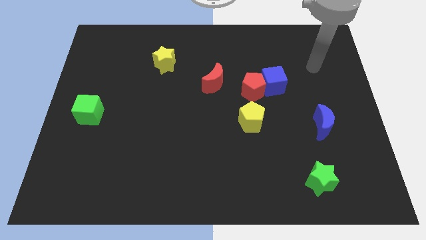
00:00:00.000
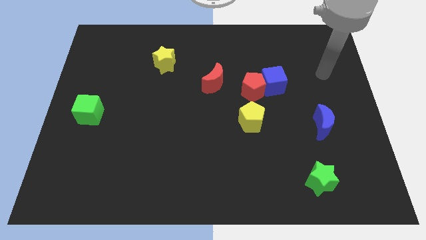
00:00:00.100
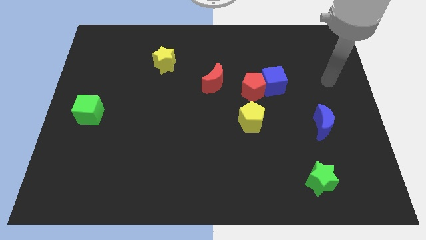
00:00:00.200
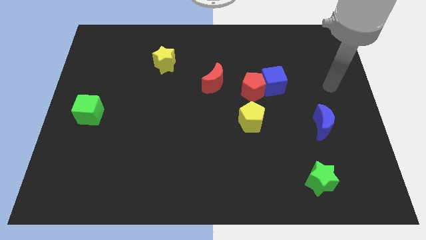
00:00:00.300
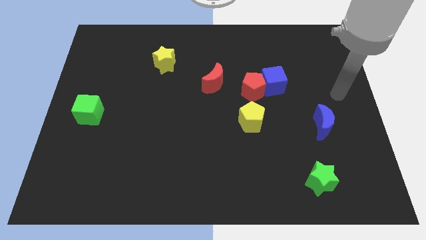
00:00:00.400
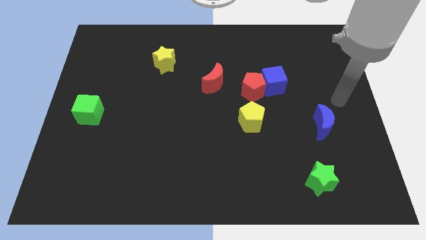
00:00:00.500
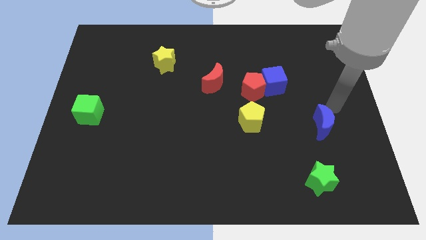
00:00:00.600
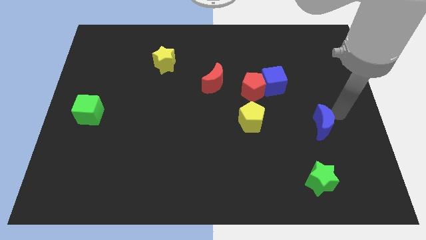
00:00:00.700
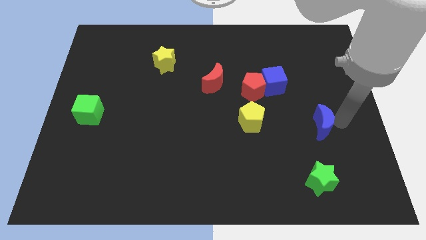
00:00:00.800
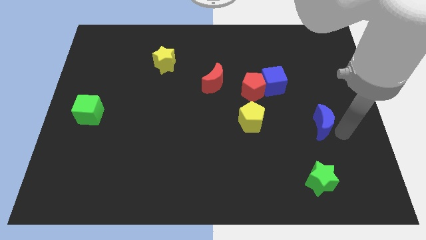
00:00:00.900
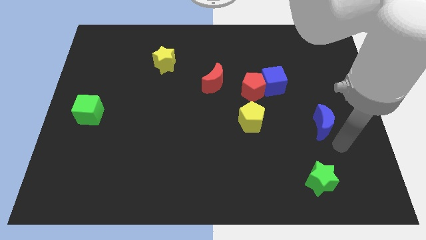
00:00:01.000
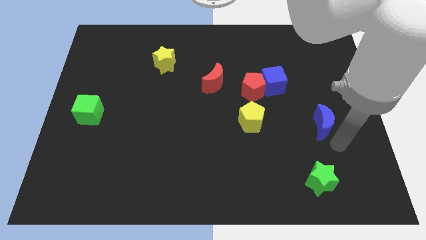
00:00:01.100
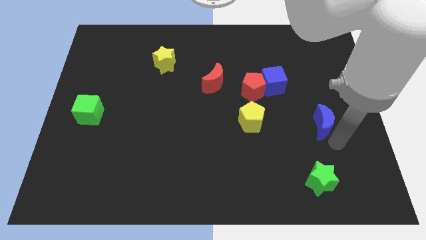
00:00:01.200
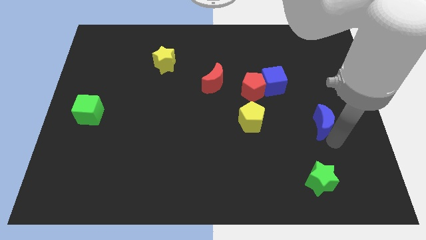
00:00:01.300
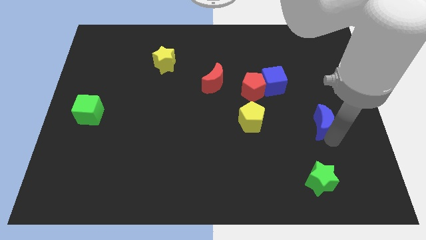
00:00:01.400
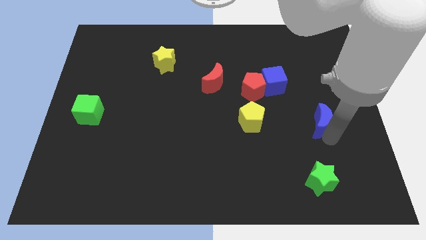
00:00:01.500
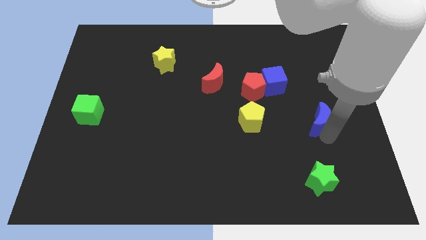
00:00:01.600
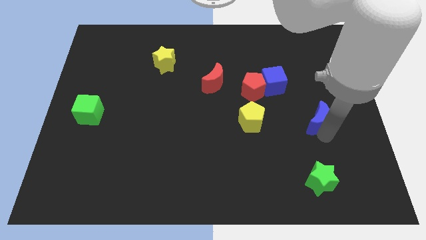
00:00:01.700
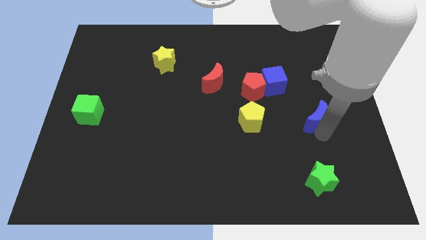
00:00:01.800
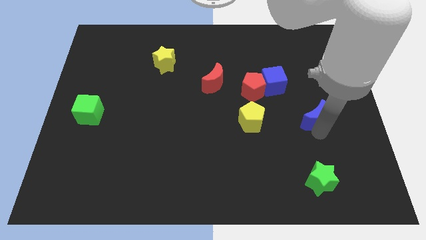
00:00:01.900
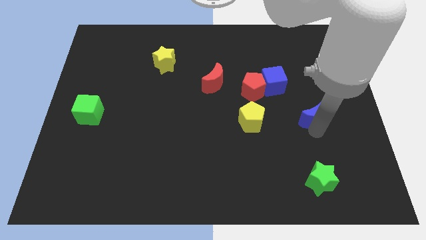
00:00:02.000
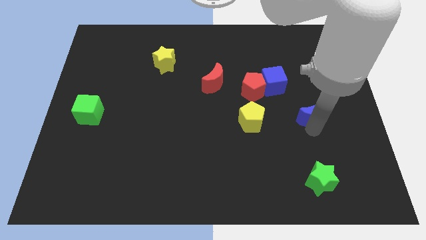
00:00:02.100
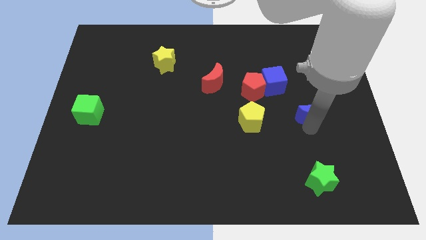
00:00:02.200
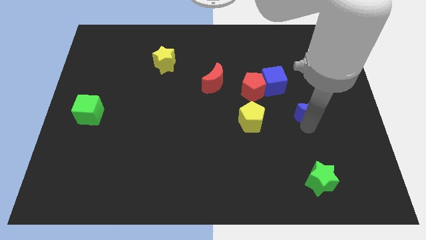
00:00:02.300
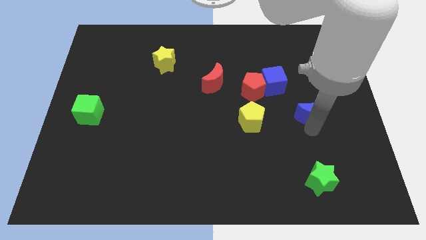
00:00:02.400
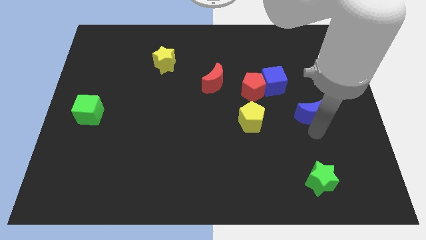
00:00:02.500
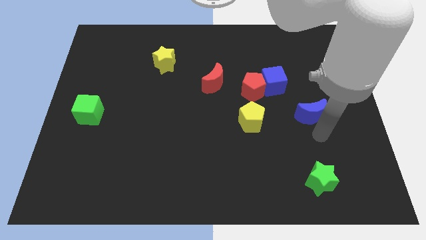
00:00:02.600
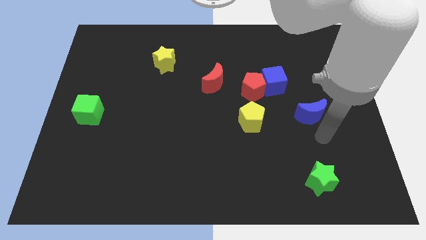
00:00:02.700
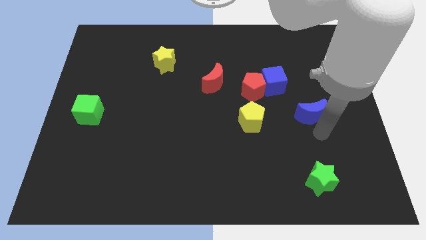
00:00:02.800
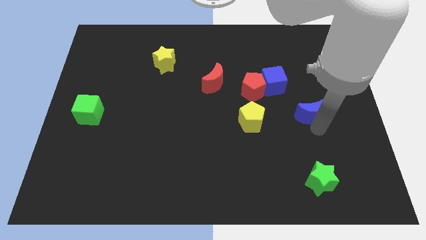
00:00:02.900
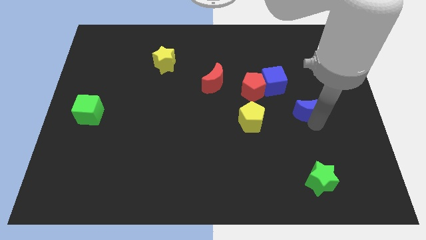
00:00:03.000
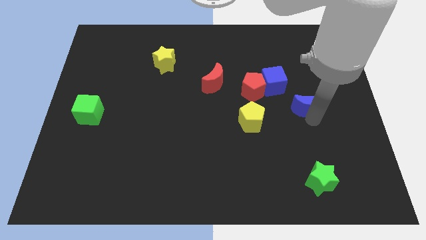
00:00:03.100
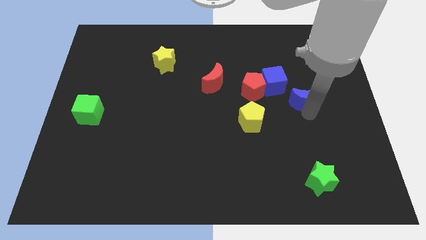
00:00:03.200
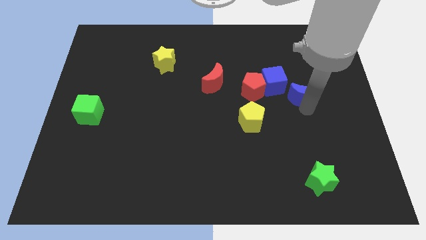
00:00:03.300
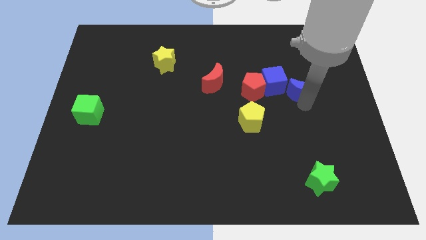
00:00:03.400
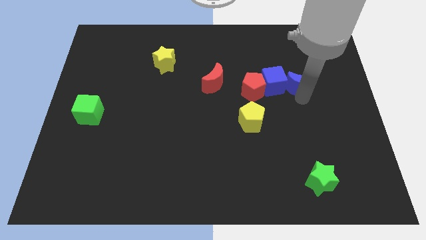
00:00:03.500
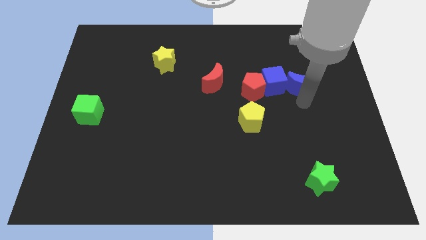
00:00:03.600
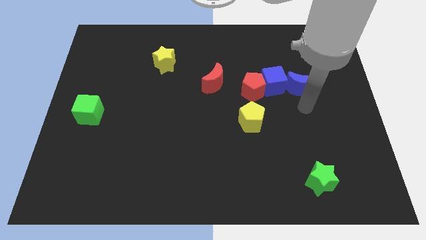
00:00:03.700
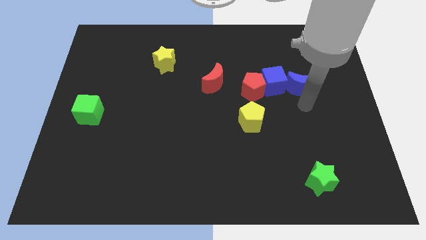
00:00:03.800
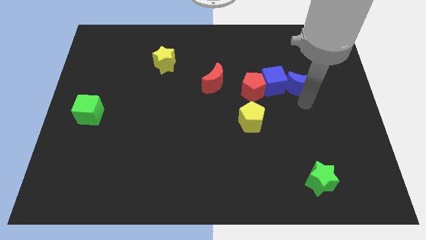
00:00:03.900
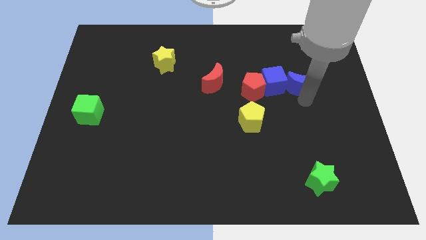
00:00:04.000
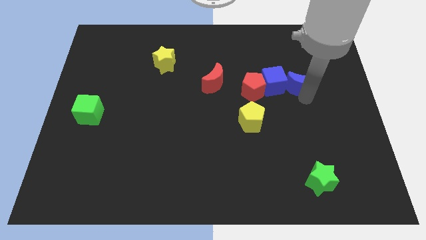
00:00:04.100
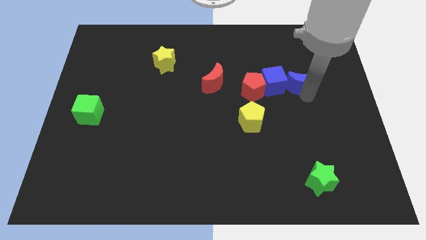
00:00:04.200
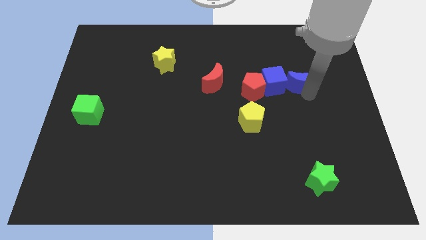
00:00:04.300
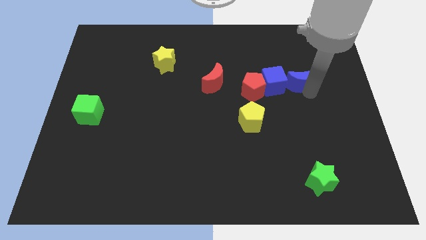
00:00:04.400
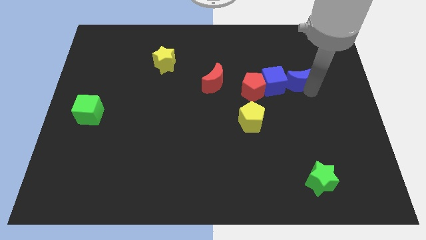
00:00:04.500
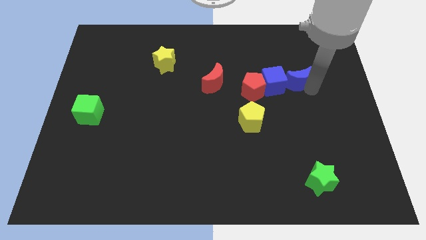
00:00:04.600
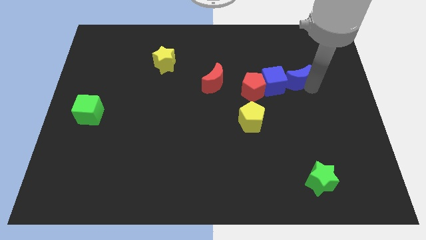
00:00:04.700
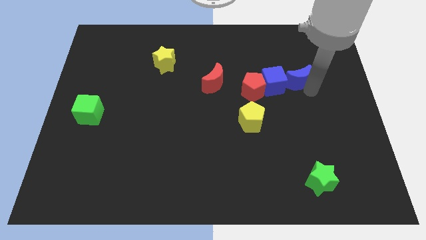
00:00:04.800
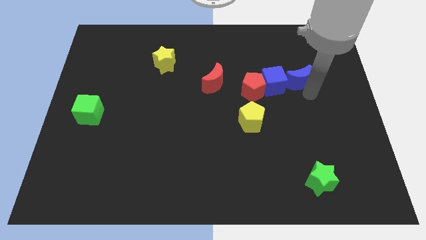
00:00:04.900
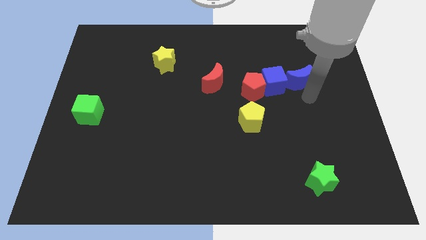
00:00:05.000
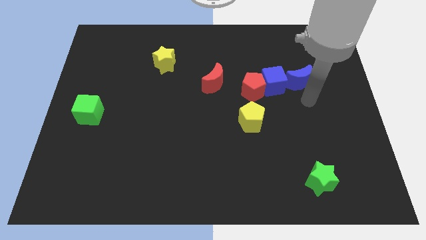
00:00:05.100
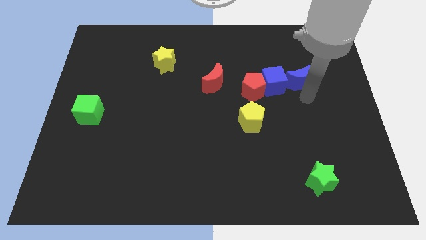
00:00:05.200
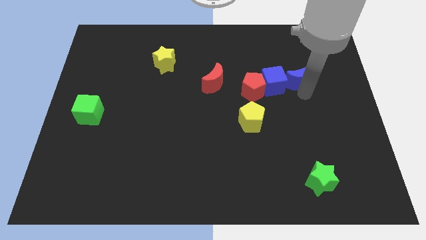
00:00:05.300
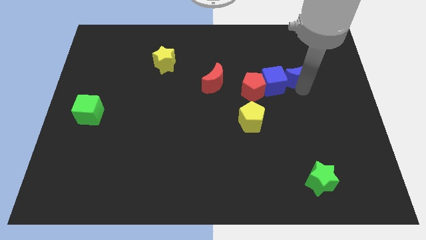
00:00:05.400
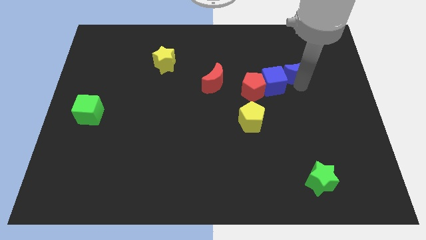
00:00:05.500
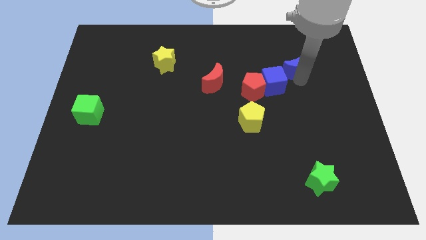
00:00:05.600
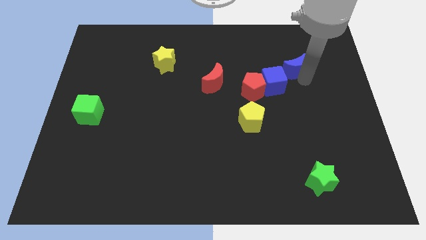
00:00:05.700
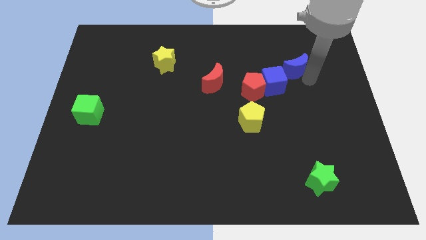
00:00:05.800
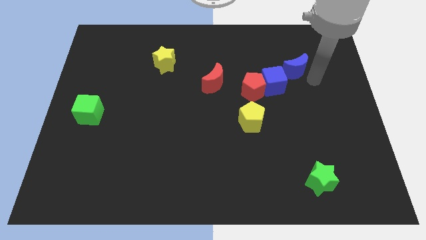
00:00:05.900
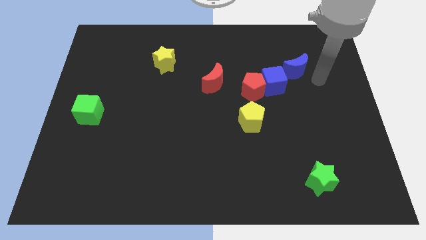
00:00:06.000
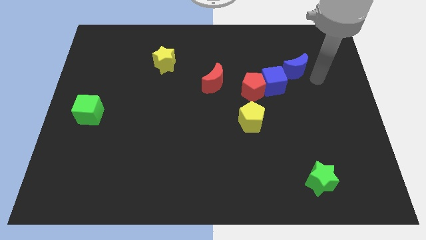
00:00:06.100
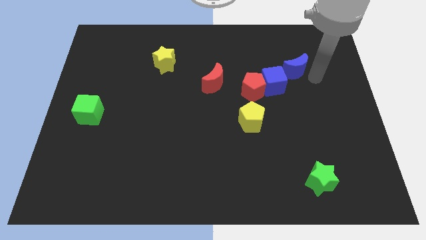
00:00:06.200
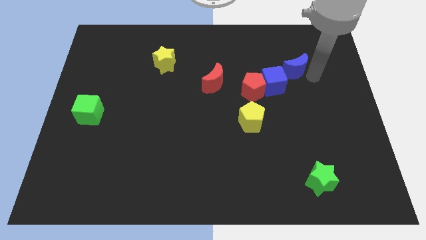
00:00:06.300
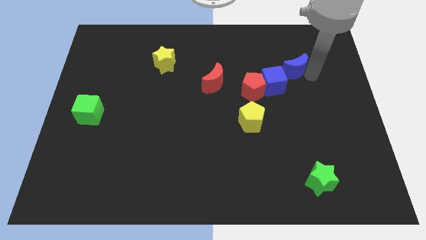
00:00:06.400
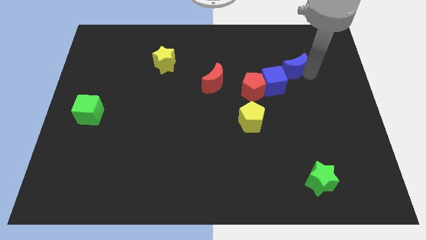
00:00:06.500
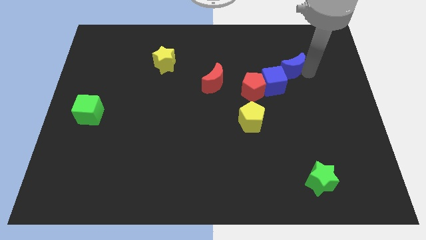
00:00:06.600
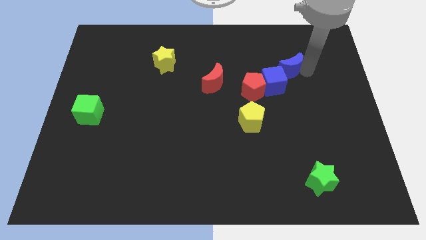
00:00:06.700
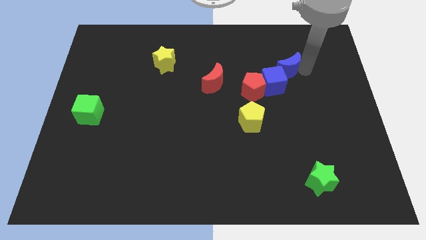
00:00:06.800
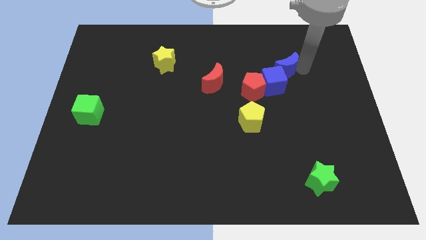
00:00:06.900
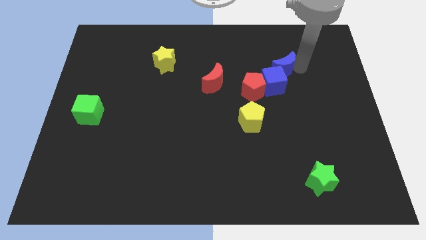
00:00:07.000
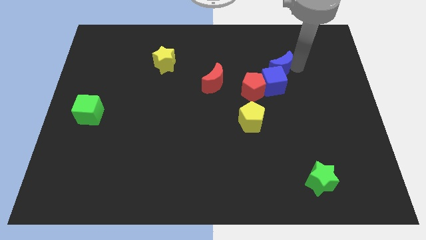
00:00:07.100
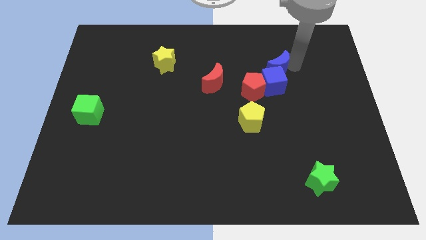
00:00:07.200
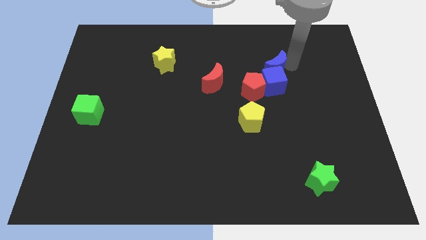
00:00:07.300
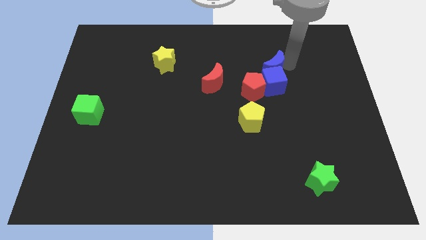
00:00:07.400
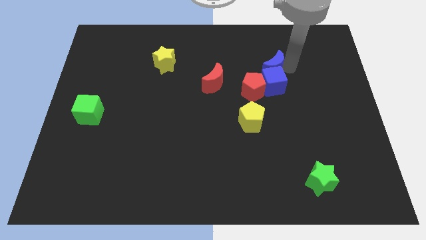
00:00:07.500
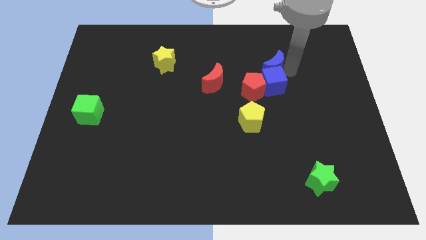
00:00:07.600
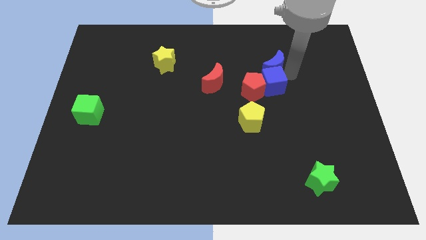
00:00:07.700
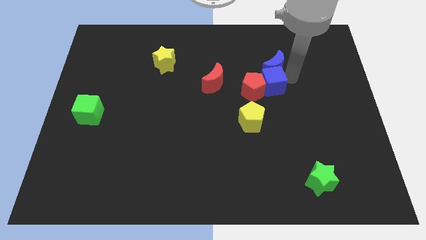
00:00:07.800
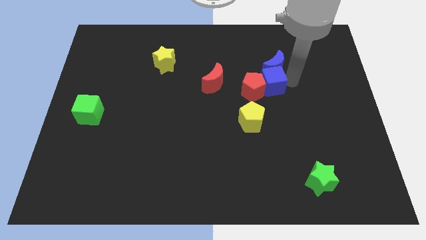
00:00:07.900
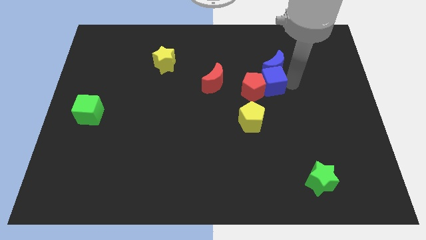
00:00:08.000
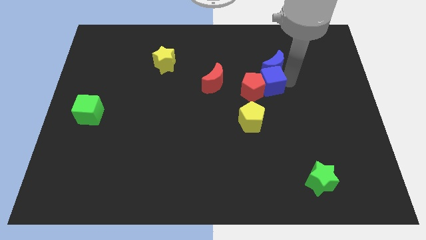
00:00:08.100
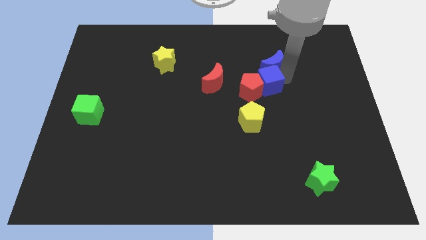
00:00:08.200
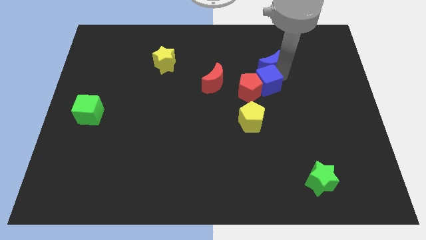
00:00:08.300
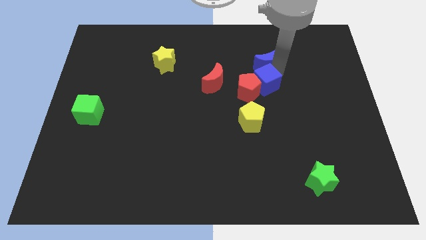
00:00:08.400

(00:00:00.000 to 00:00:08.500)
push the blue moon diagonally up and left
